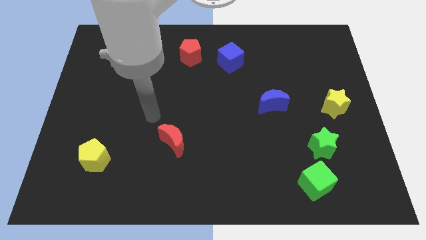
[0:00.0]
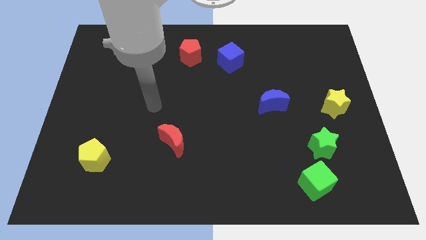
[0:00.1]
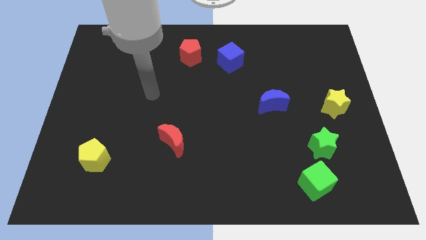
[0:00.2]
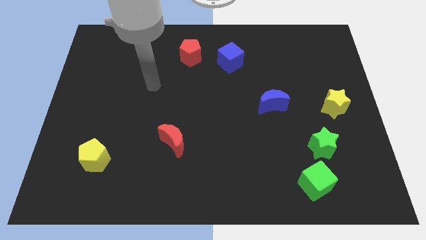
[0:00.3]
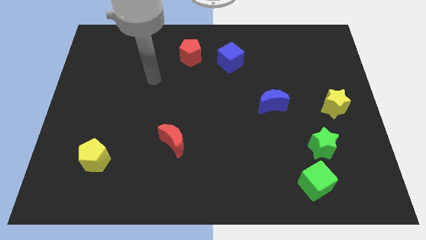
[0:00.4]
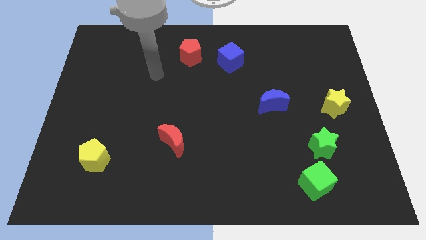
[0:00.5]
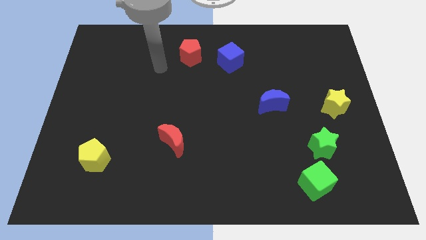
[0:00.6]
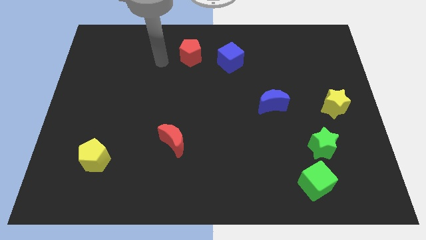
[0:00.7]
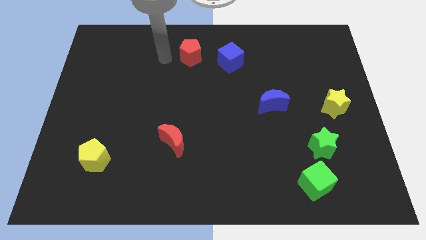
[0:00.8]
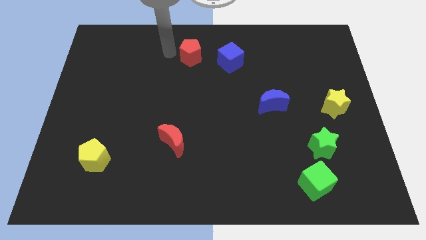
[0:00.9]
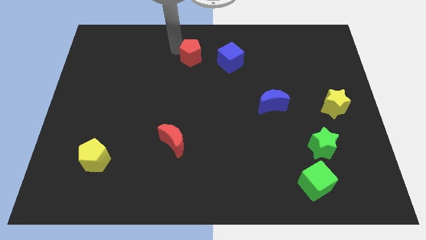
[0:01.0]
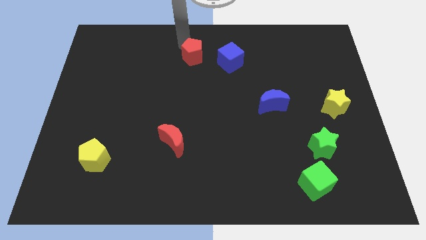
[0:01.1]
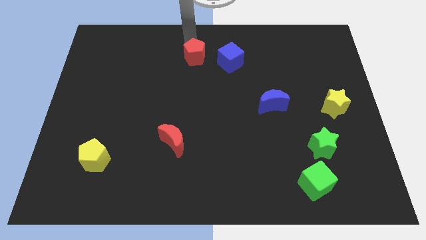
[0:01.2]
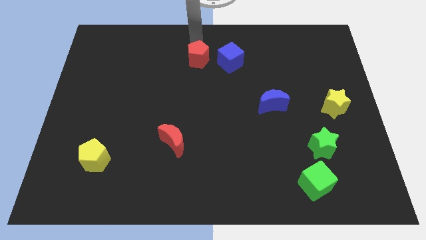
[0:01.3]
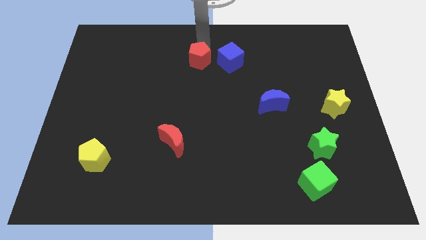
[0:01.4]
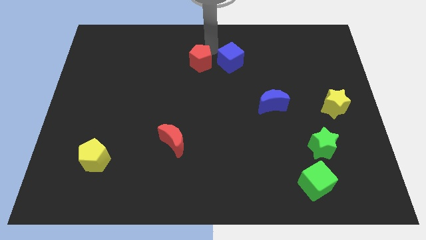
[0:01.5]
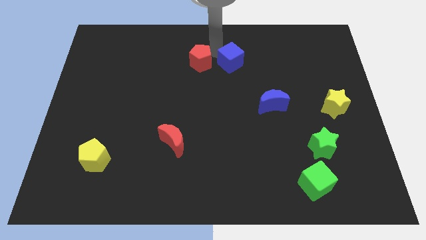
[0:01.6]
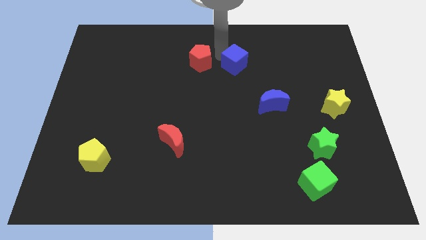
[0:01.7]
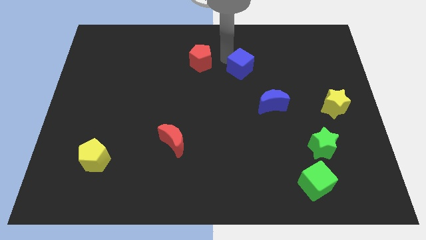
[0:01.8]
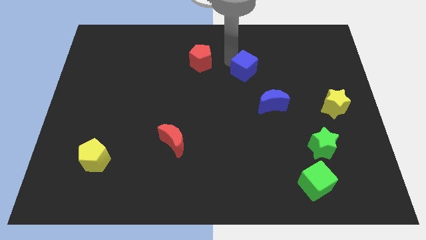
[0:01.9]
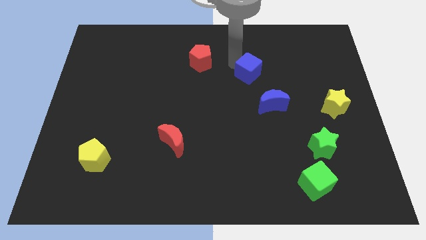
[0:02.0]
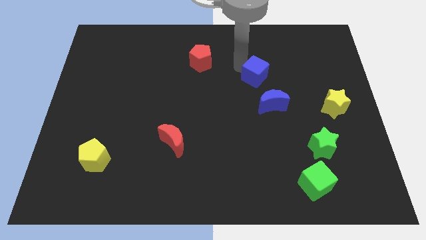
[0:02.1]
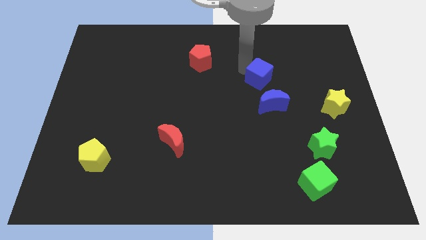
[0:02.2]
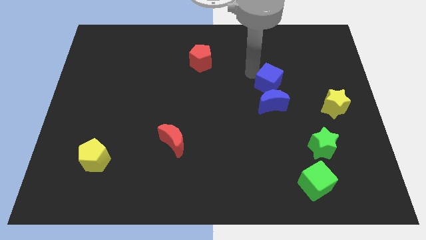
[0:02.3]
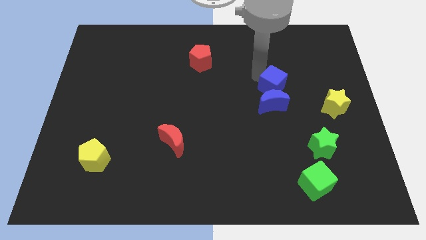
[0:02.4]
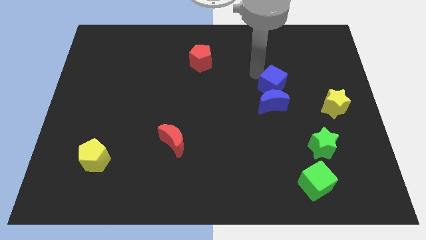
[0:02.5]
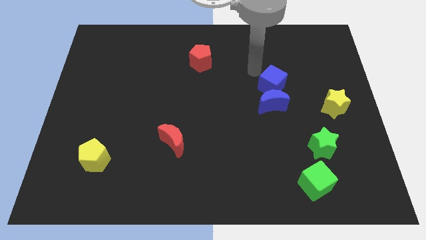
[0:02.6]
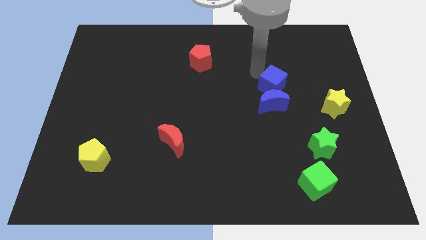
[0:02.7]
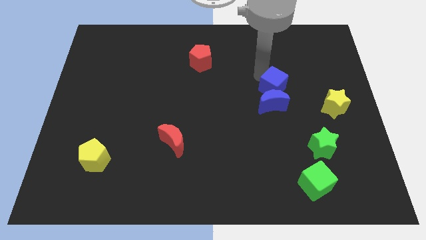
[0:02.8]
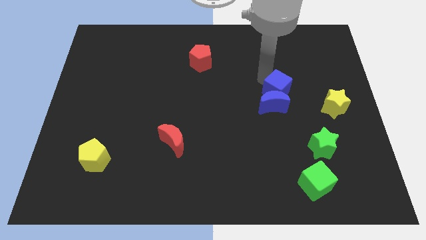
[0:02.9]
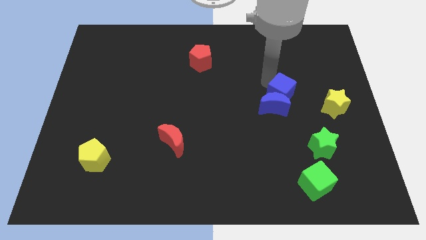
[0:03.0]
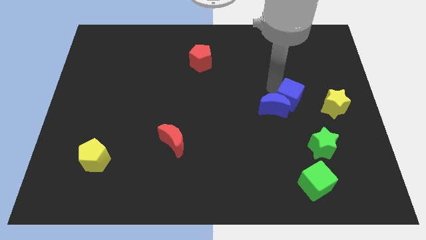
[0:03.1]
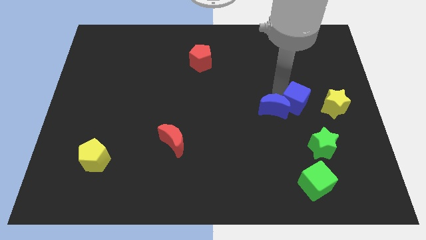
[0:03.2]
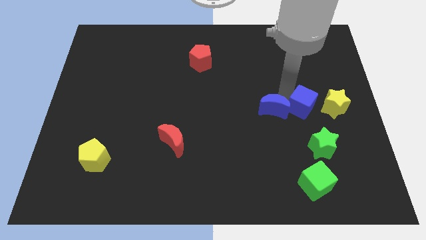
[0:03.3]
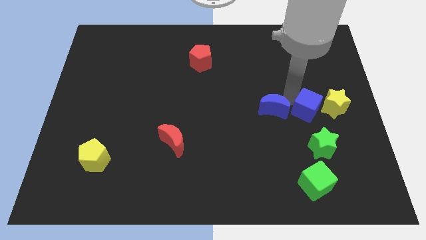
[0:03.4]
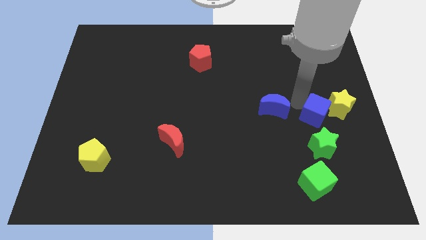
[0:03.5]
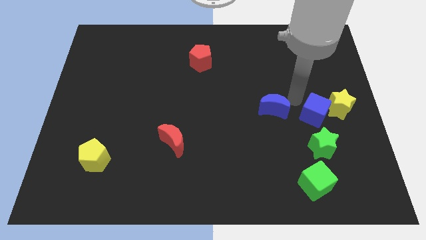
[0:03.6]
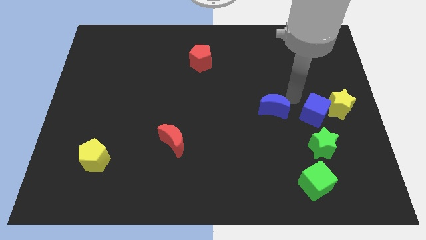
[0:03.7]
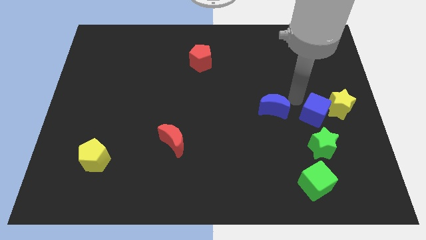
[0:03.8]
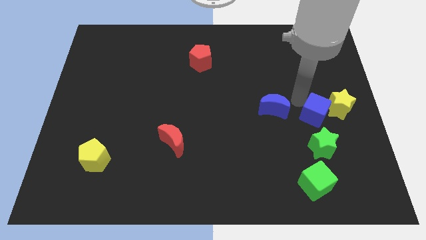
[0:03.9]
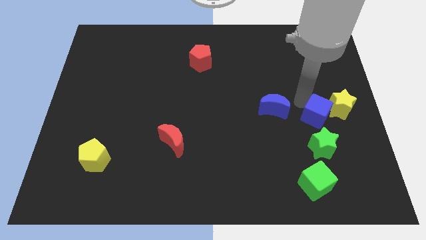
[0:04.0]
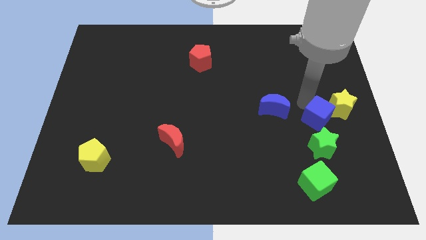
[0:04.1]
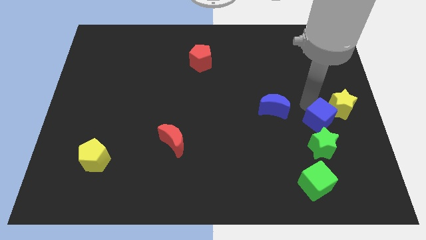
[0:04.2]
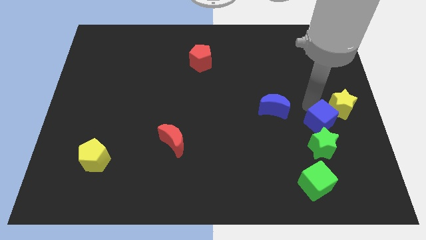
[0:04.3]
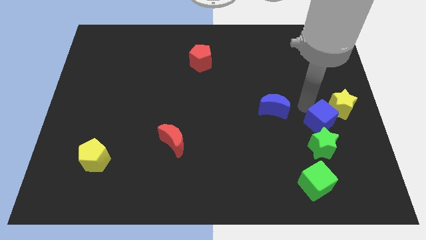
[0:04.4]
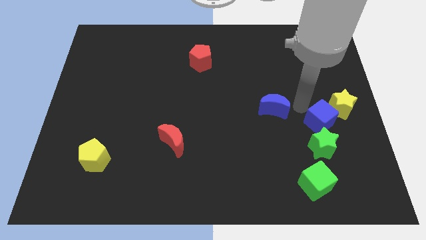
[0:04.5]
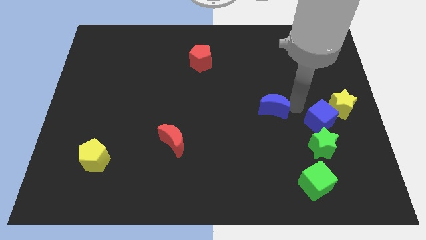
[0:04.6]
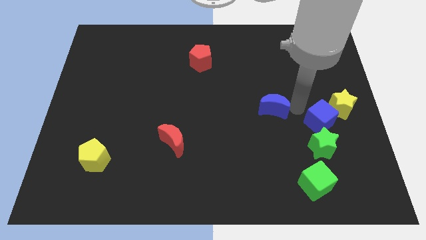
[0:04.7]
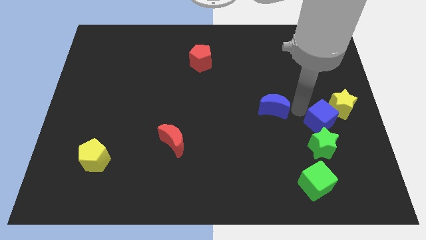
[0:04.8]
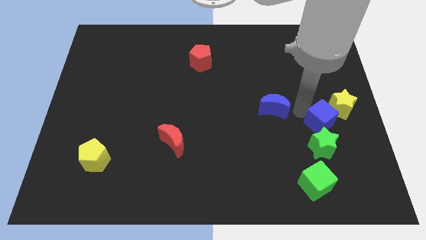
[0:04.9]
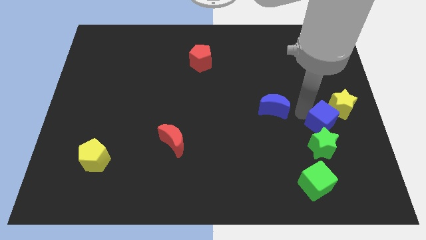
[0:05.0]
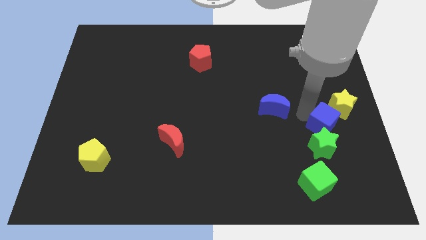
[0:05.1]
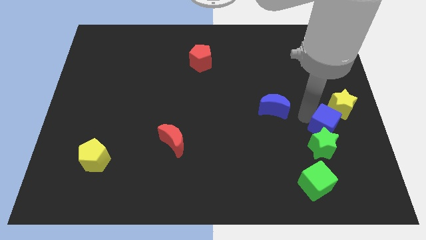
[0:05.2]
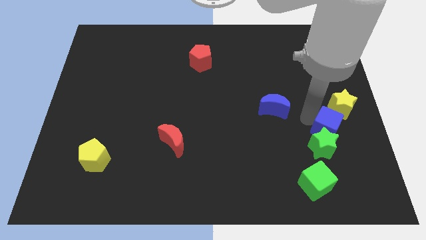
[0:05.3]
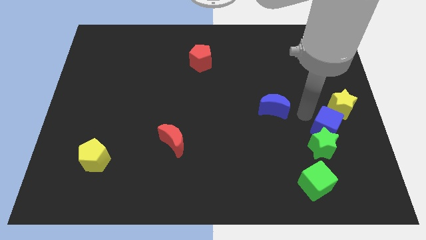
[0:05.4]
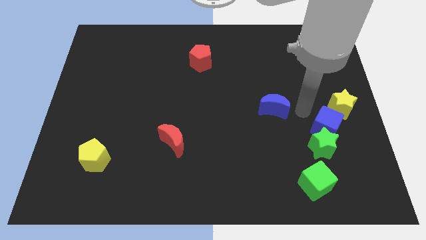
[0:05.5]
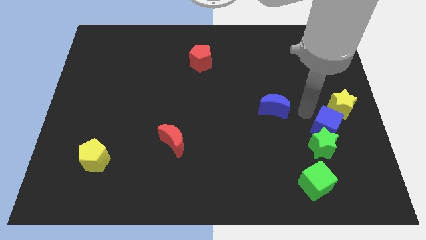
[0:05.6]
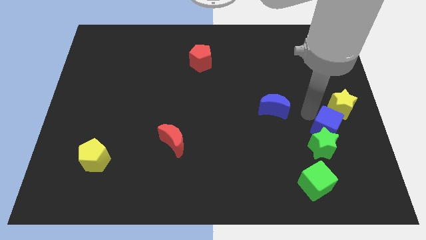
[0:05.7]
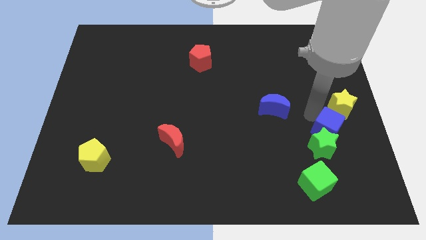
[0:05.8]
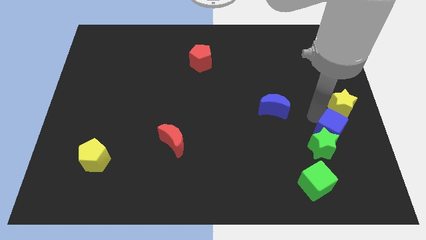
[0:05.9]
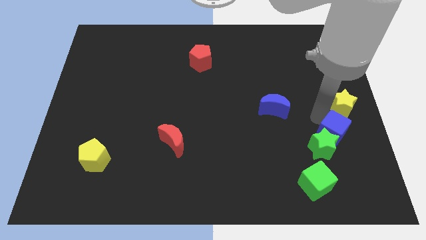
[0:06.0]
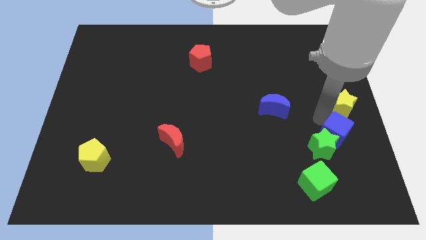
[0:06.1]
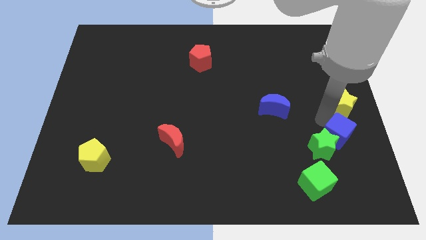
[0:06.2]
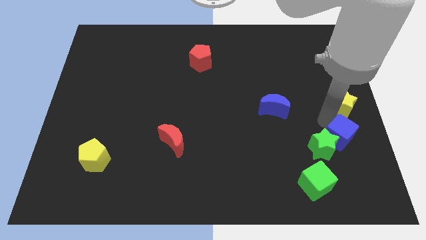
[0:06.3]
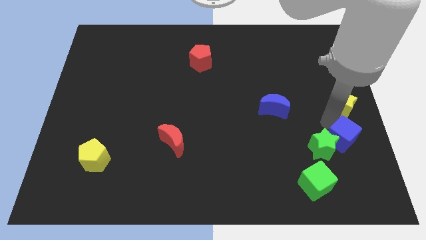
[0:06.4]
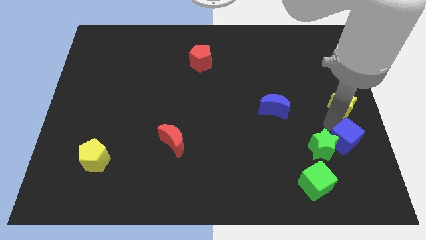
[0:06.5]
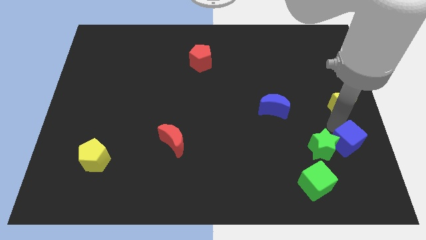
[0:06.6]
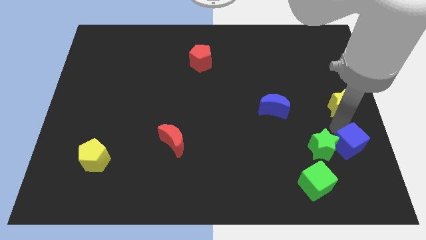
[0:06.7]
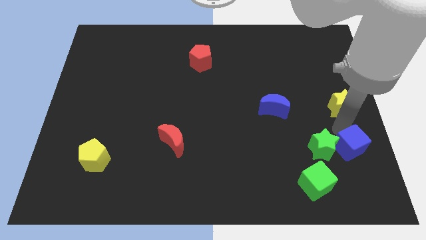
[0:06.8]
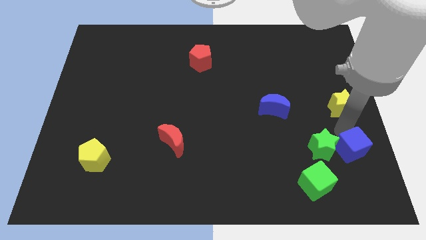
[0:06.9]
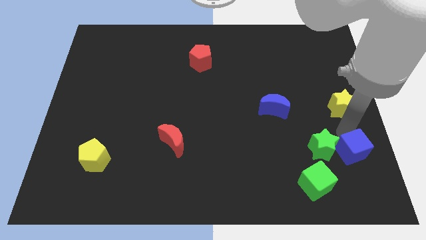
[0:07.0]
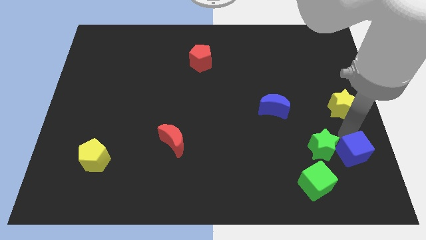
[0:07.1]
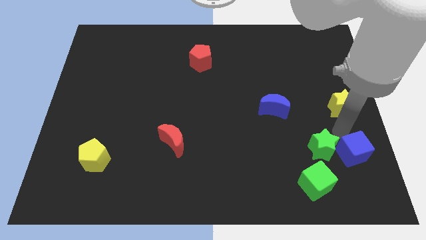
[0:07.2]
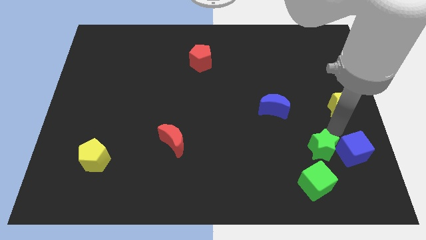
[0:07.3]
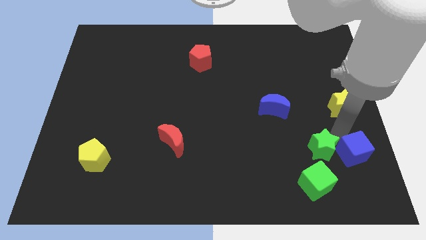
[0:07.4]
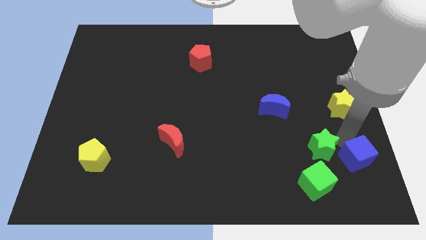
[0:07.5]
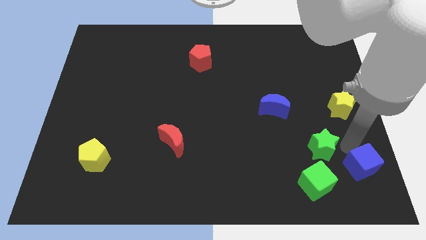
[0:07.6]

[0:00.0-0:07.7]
put the blue cube to the bottom right

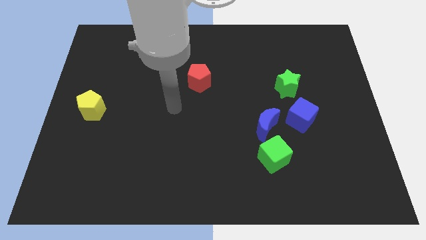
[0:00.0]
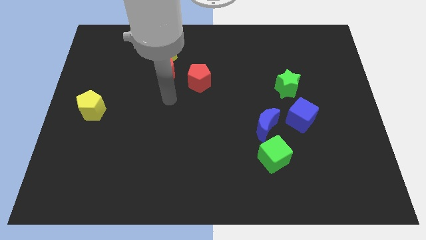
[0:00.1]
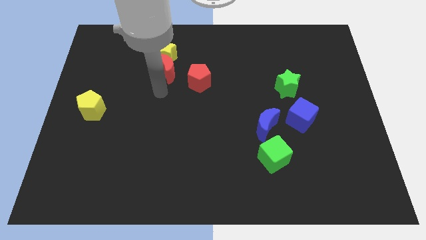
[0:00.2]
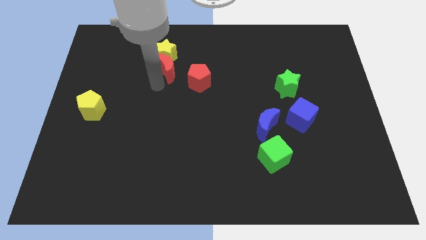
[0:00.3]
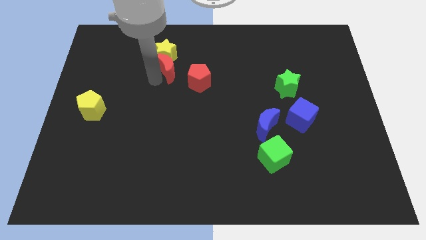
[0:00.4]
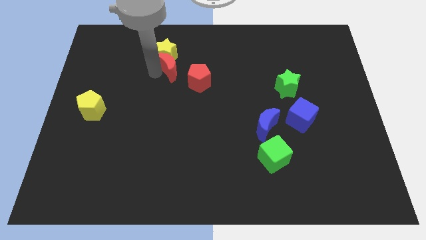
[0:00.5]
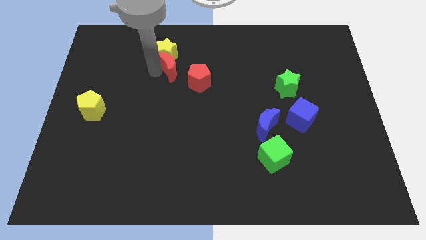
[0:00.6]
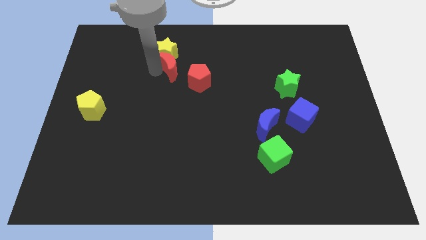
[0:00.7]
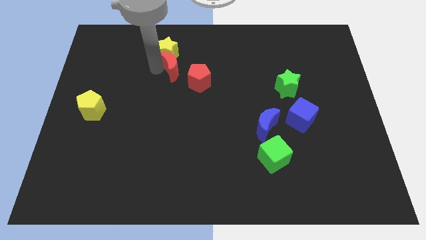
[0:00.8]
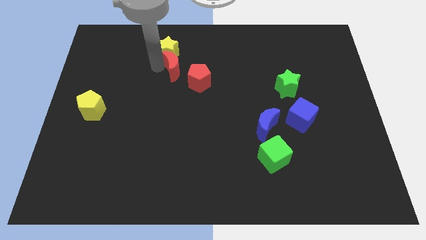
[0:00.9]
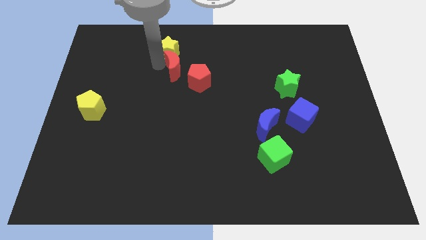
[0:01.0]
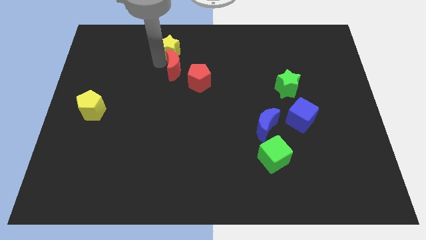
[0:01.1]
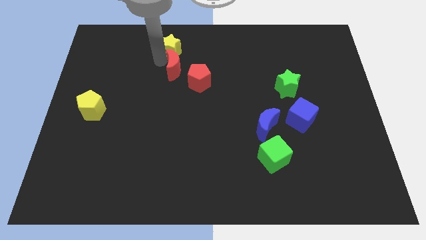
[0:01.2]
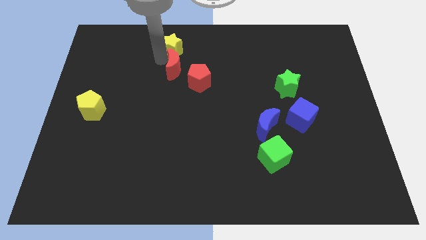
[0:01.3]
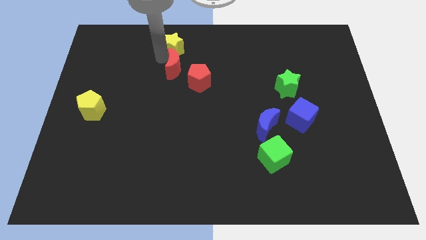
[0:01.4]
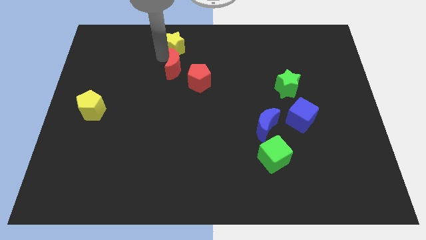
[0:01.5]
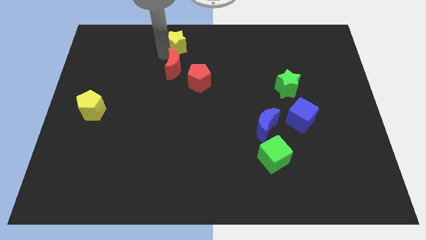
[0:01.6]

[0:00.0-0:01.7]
put the yellow star to the towards your base
